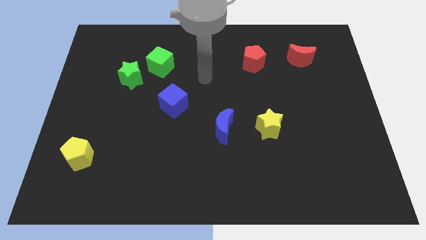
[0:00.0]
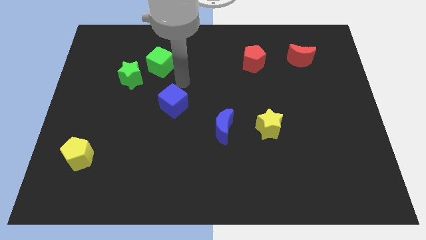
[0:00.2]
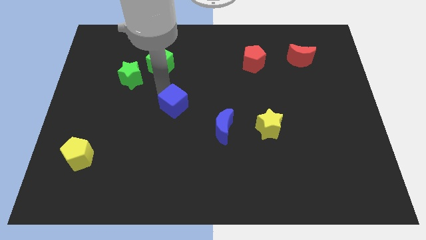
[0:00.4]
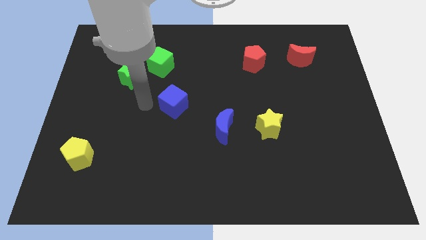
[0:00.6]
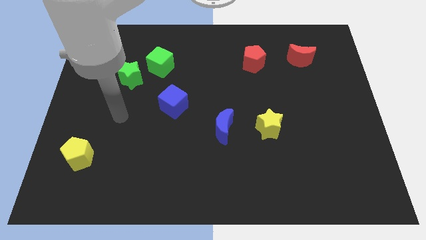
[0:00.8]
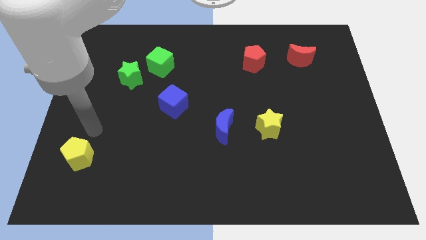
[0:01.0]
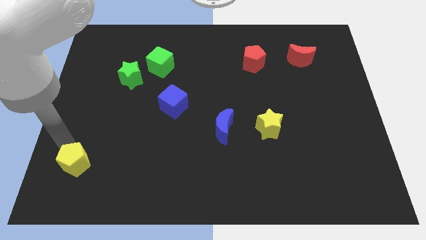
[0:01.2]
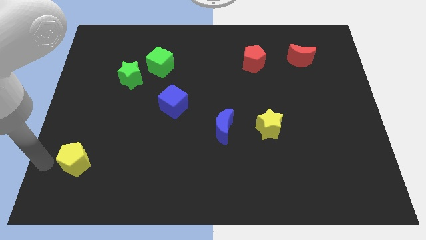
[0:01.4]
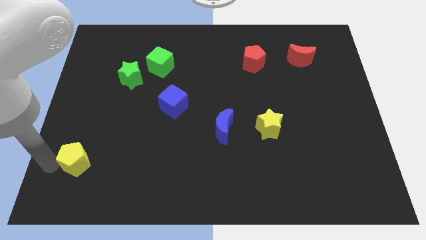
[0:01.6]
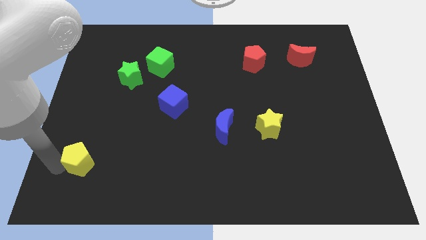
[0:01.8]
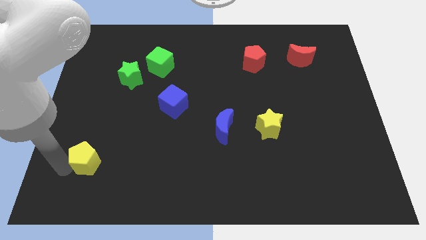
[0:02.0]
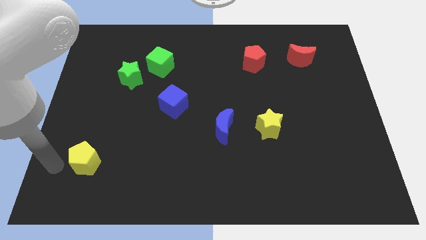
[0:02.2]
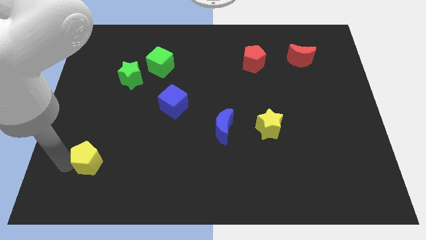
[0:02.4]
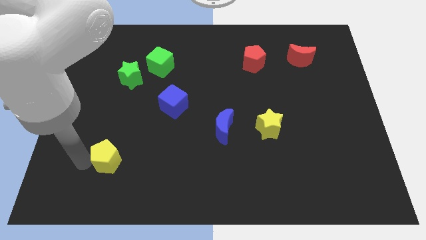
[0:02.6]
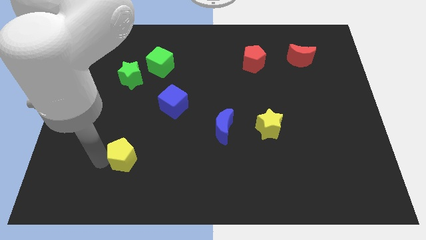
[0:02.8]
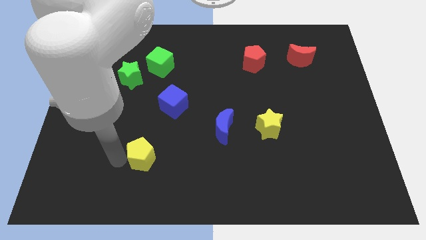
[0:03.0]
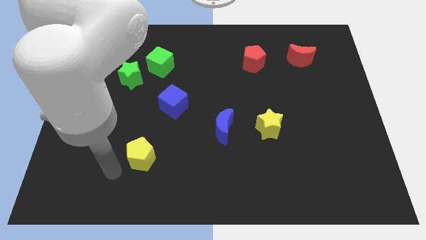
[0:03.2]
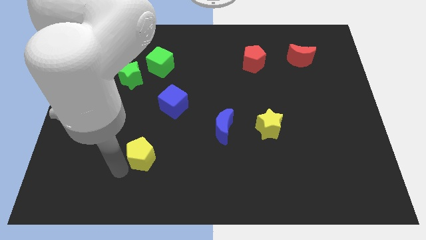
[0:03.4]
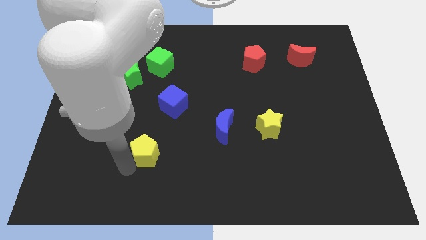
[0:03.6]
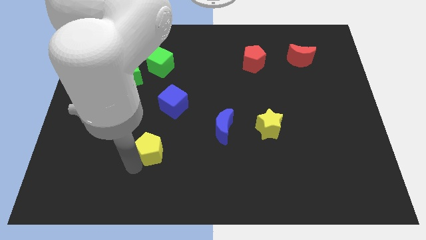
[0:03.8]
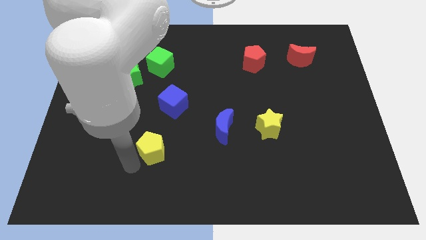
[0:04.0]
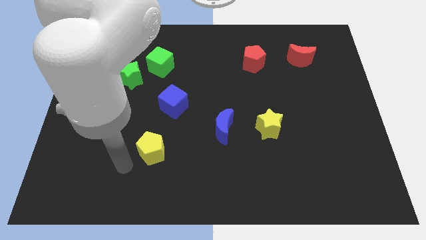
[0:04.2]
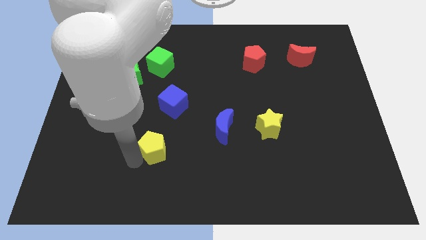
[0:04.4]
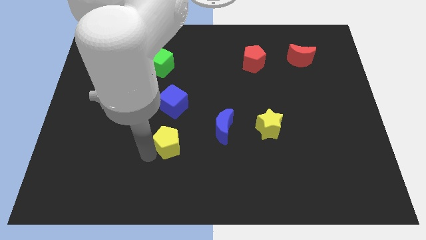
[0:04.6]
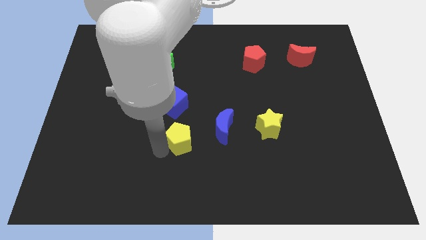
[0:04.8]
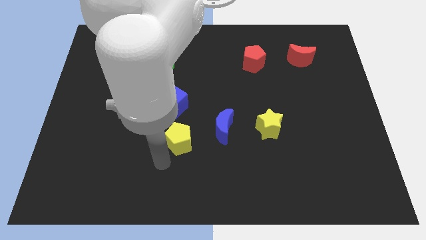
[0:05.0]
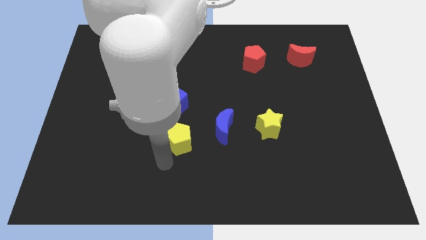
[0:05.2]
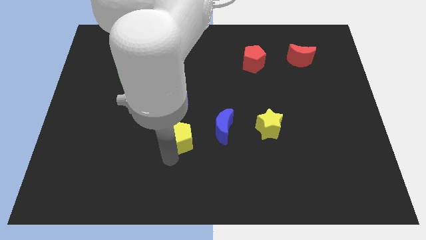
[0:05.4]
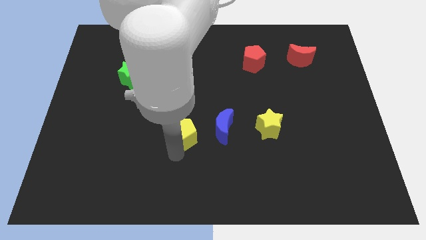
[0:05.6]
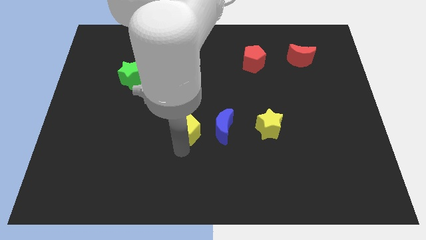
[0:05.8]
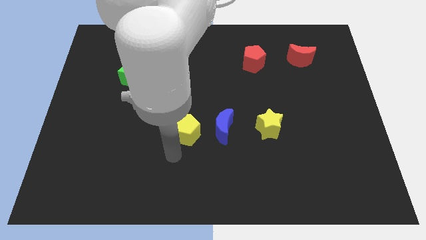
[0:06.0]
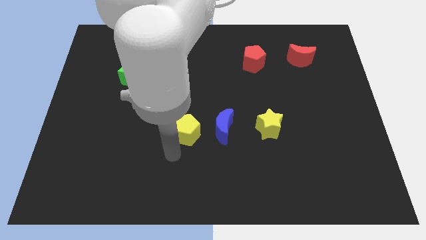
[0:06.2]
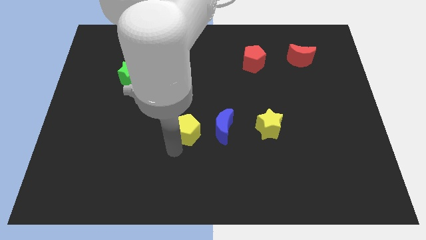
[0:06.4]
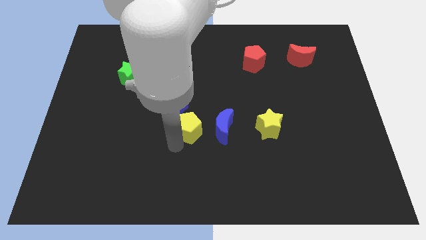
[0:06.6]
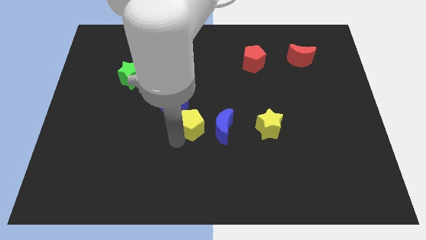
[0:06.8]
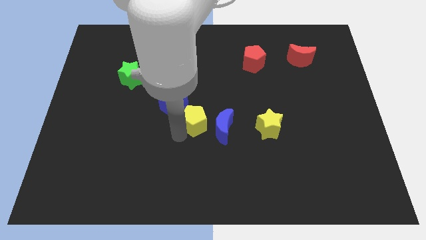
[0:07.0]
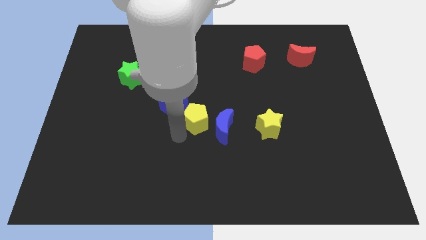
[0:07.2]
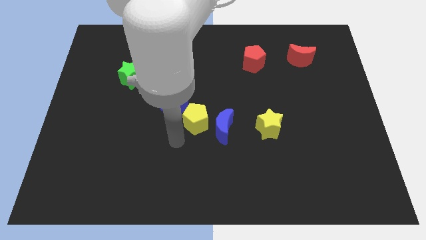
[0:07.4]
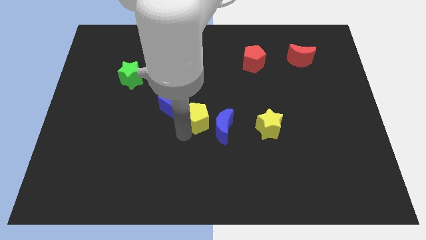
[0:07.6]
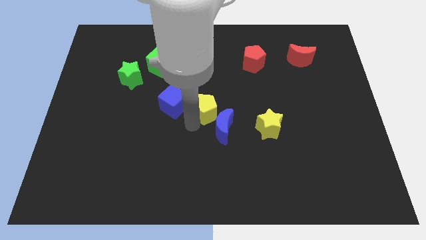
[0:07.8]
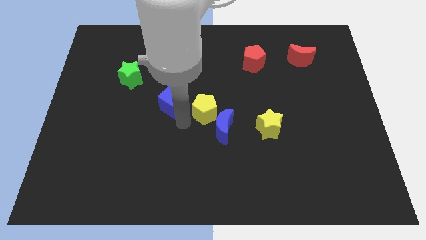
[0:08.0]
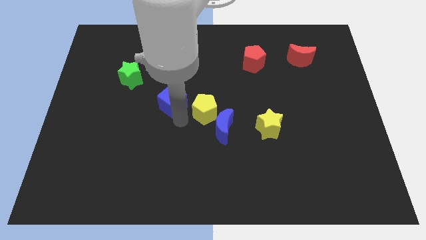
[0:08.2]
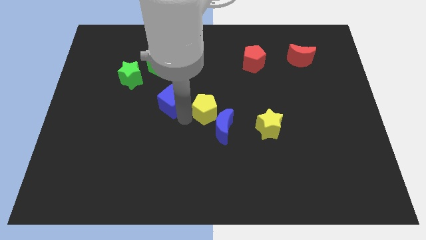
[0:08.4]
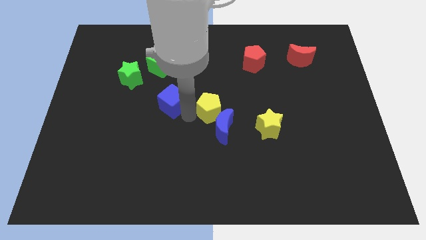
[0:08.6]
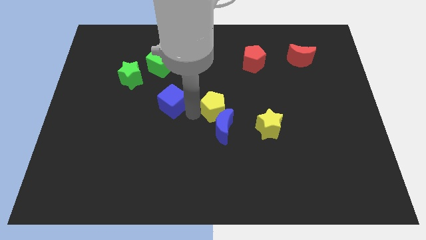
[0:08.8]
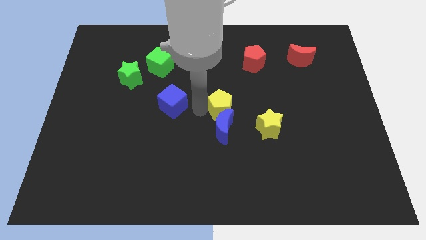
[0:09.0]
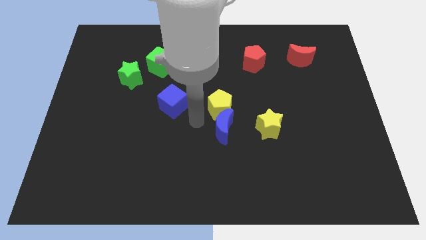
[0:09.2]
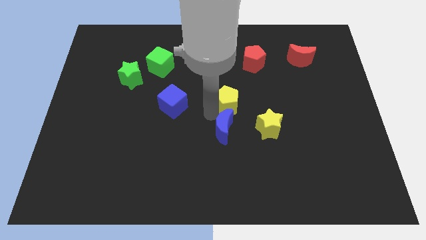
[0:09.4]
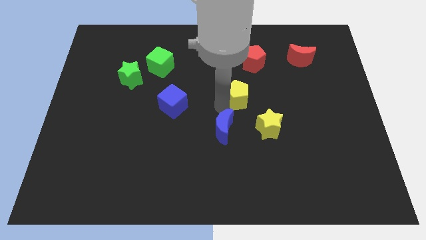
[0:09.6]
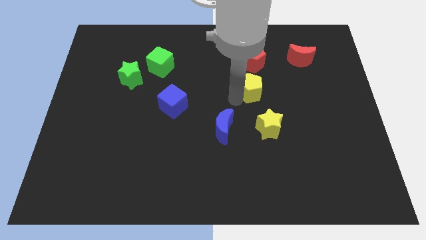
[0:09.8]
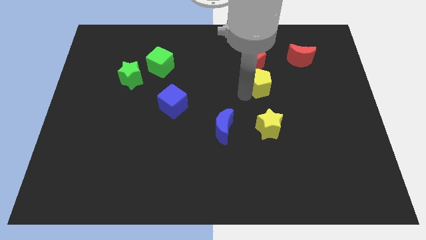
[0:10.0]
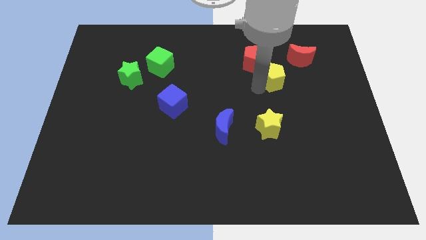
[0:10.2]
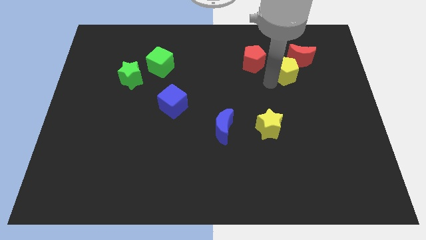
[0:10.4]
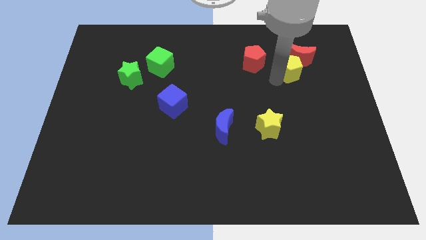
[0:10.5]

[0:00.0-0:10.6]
push the yellow pentagon close to the red moon

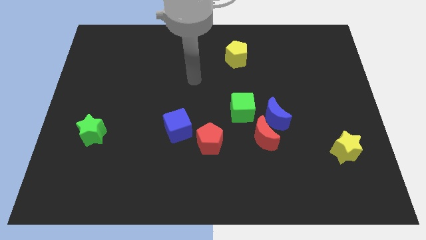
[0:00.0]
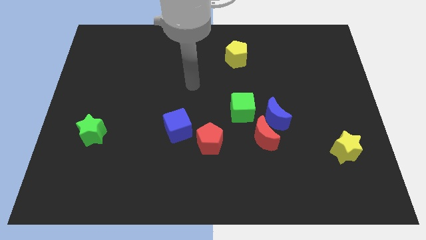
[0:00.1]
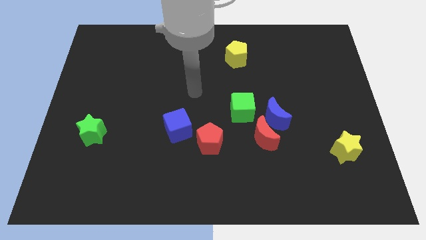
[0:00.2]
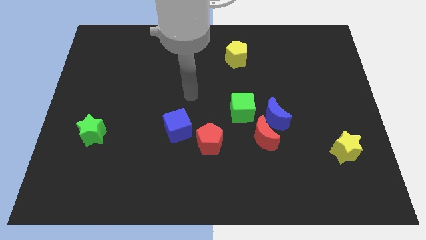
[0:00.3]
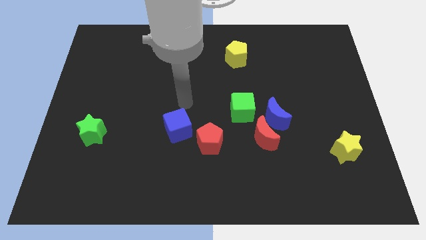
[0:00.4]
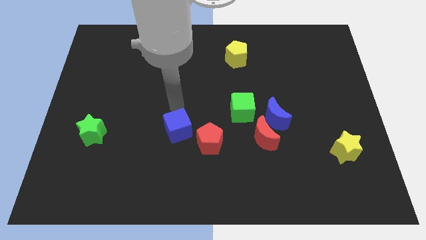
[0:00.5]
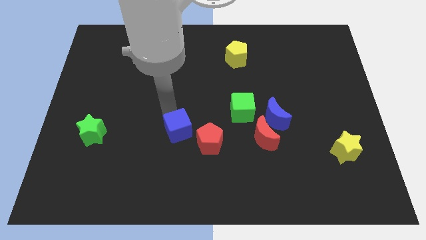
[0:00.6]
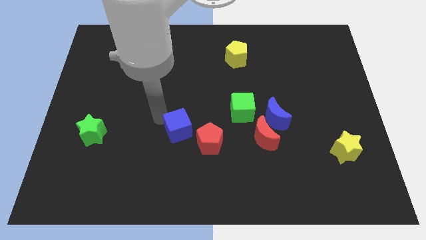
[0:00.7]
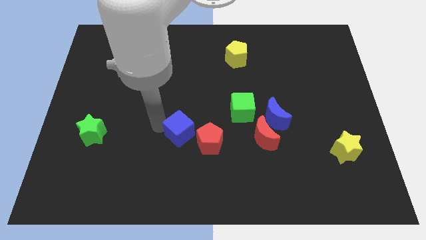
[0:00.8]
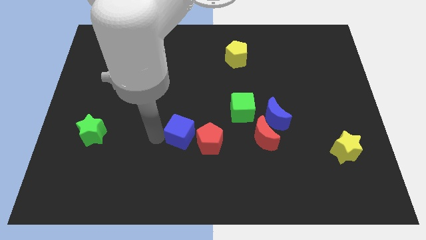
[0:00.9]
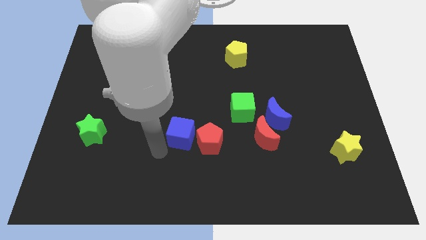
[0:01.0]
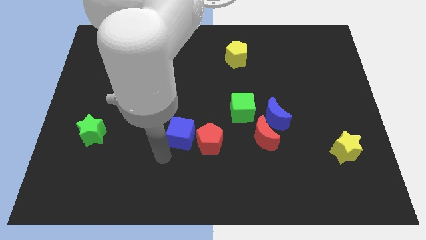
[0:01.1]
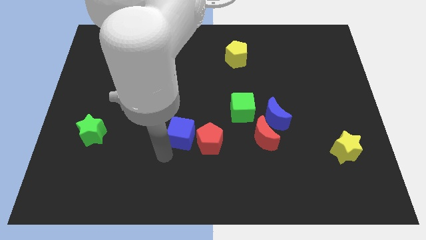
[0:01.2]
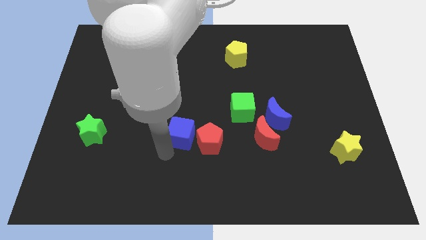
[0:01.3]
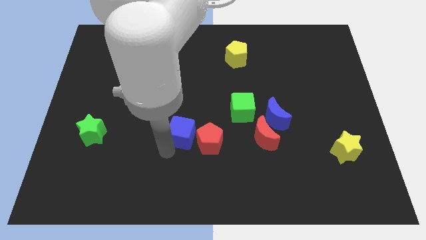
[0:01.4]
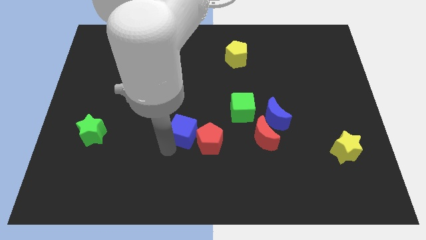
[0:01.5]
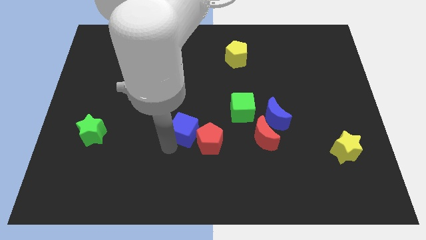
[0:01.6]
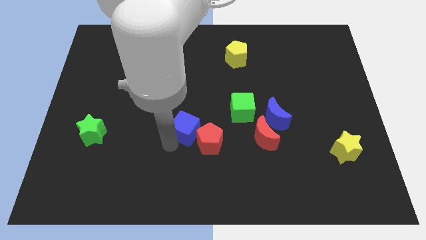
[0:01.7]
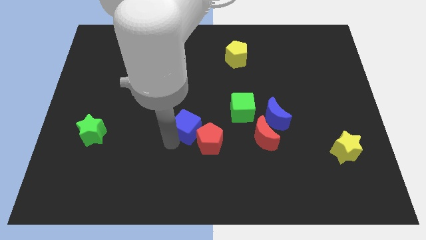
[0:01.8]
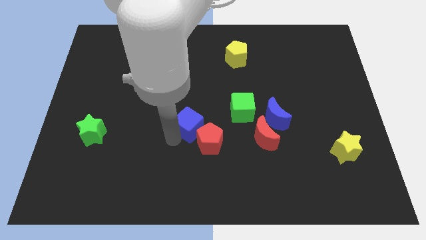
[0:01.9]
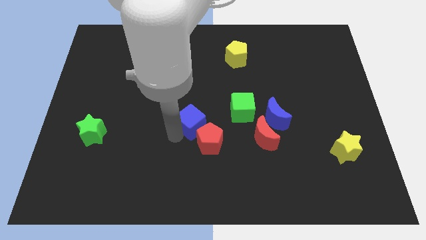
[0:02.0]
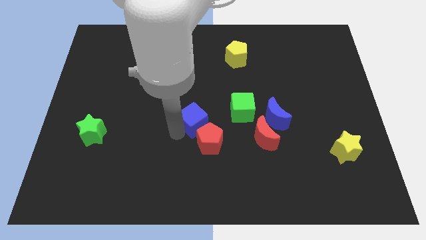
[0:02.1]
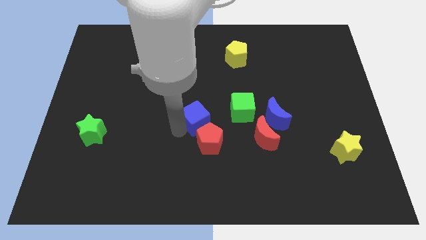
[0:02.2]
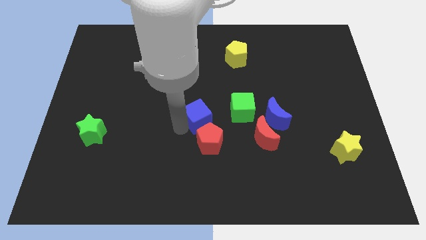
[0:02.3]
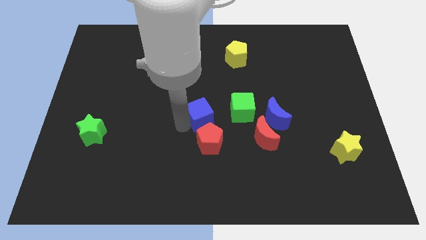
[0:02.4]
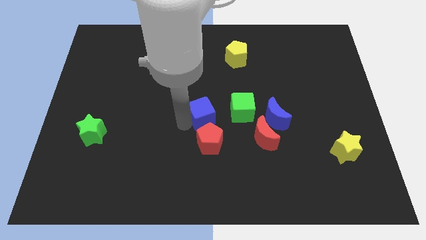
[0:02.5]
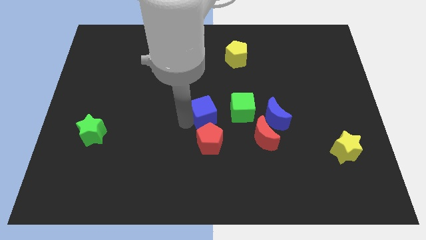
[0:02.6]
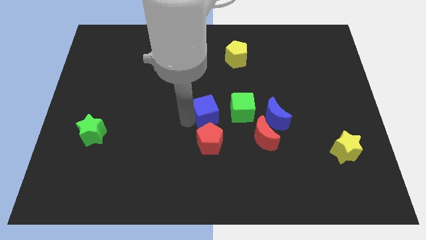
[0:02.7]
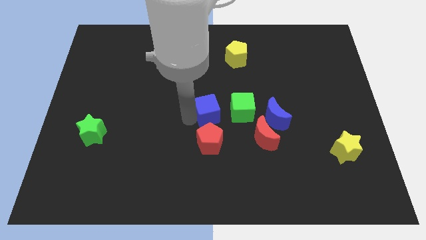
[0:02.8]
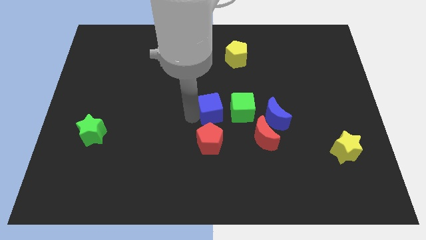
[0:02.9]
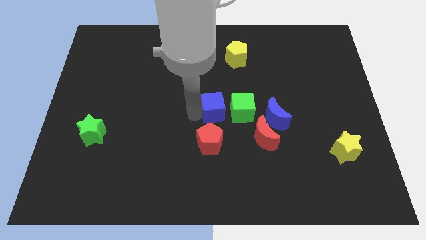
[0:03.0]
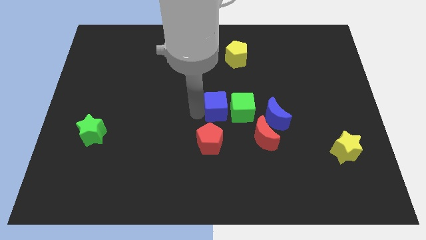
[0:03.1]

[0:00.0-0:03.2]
slide the blue cube towards the green cube
